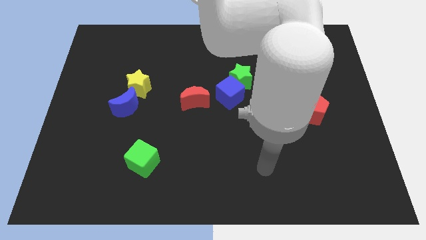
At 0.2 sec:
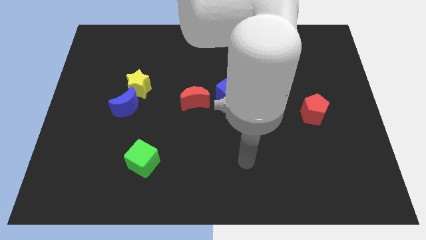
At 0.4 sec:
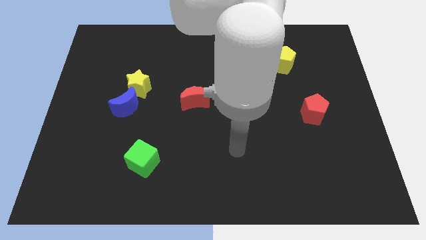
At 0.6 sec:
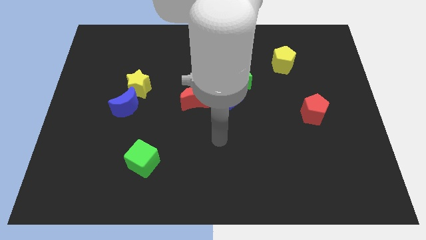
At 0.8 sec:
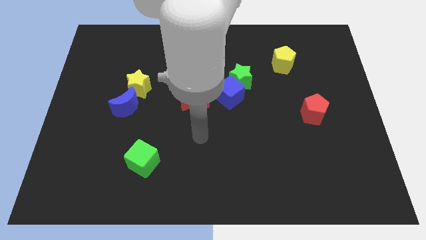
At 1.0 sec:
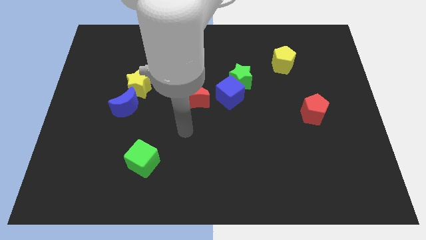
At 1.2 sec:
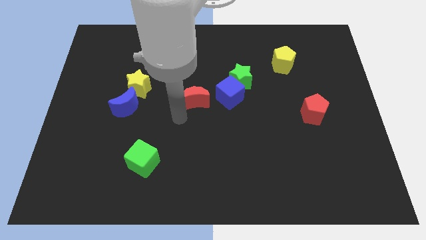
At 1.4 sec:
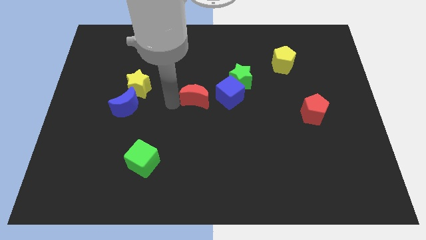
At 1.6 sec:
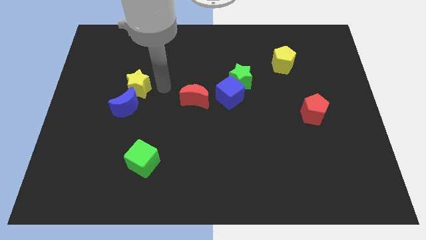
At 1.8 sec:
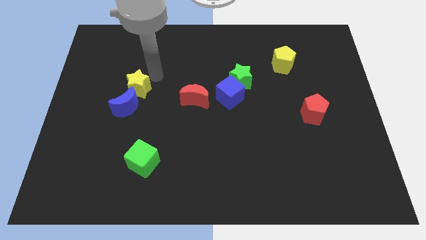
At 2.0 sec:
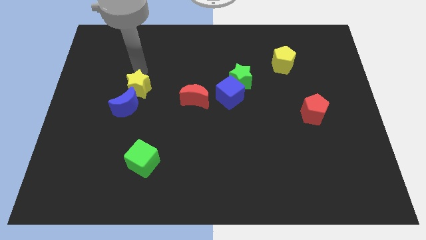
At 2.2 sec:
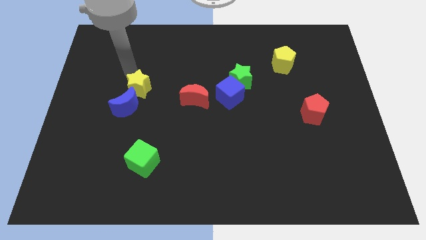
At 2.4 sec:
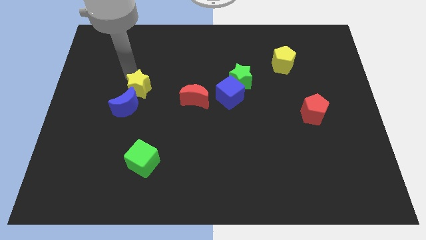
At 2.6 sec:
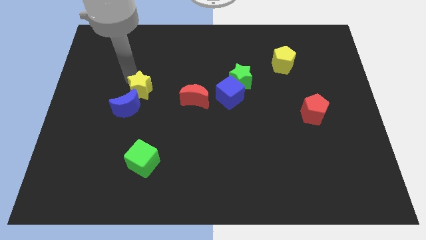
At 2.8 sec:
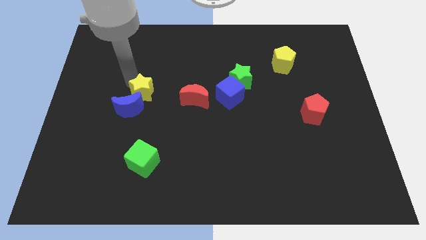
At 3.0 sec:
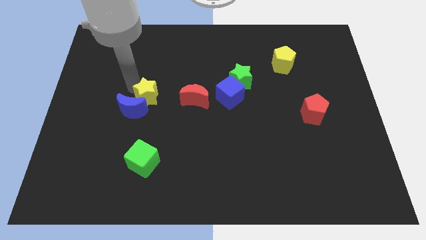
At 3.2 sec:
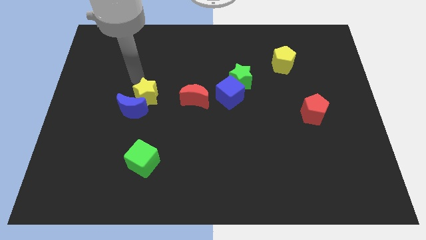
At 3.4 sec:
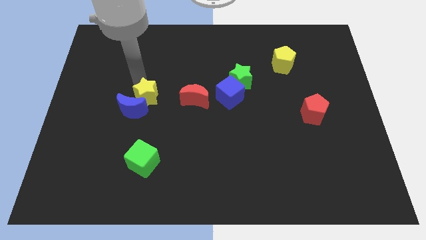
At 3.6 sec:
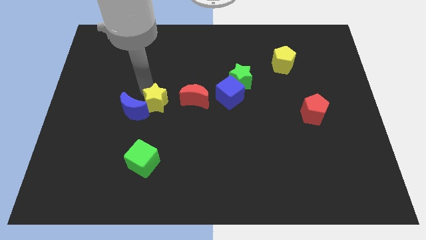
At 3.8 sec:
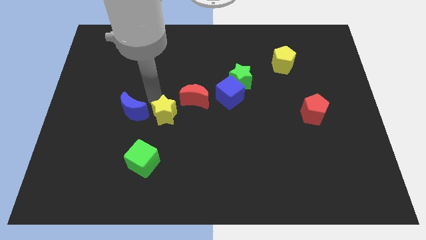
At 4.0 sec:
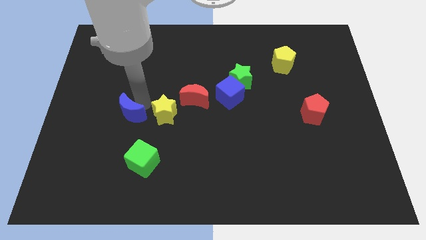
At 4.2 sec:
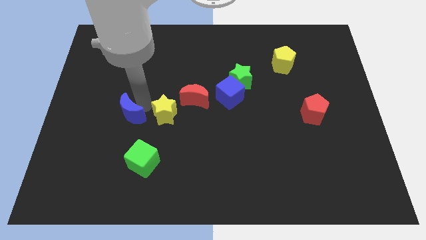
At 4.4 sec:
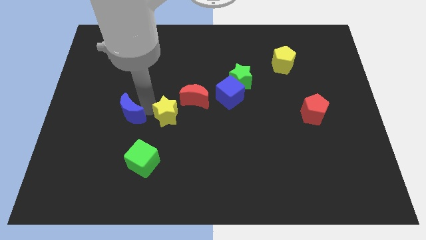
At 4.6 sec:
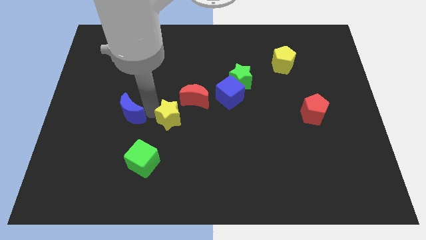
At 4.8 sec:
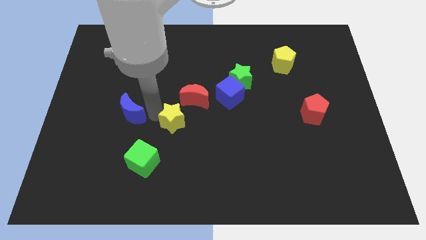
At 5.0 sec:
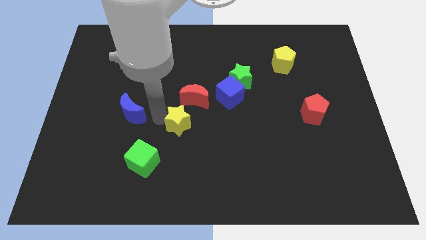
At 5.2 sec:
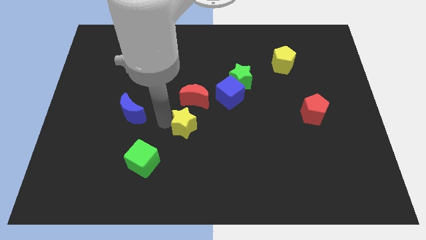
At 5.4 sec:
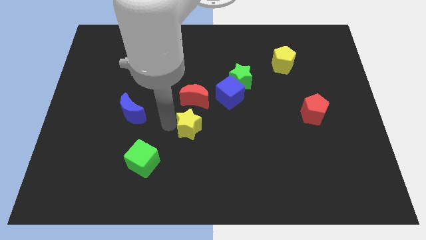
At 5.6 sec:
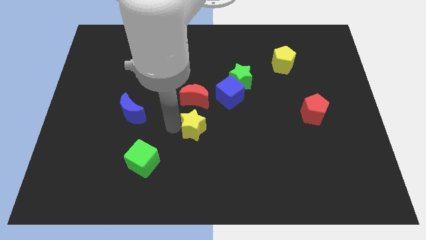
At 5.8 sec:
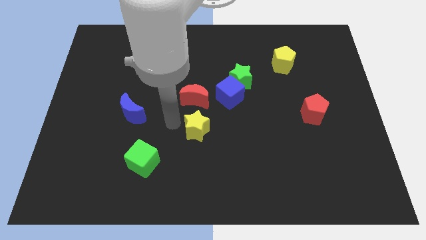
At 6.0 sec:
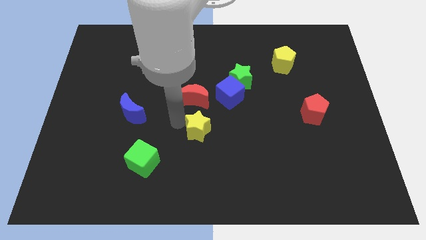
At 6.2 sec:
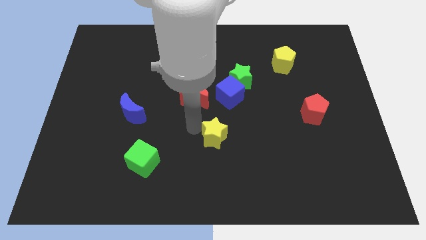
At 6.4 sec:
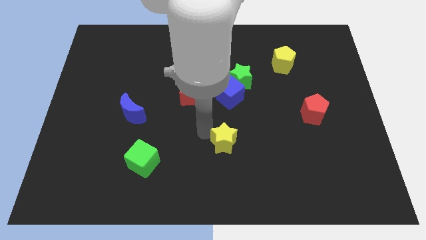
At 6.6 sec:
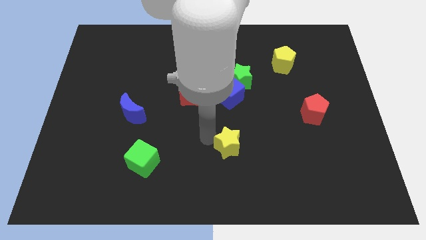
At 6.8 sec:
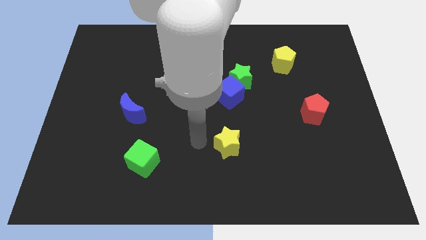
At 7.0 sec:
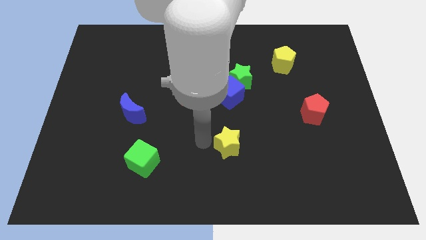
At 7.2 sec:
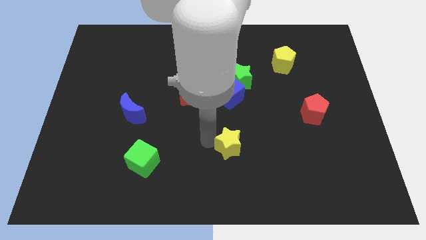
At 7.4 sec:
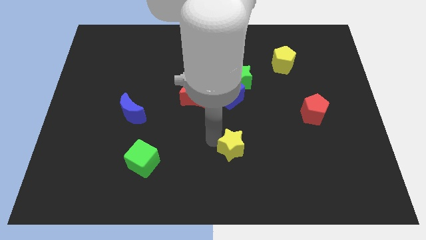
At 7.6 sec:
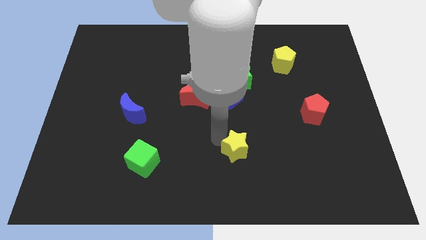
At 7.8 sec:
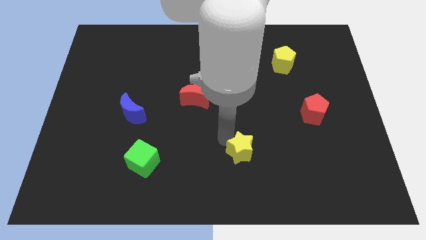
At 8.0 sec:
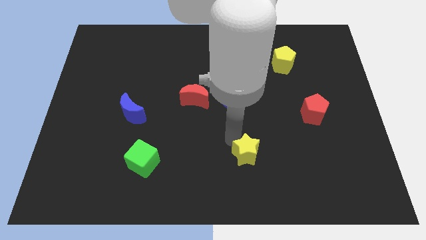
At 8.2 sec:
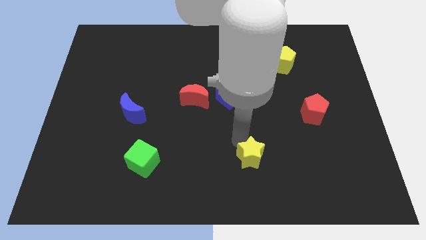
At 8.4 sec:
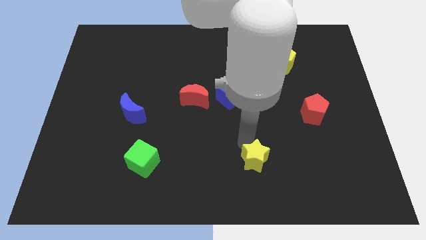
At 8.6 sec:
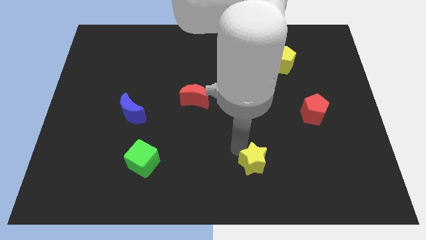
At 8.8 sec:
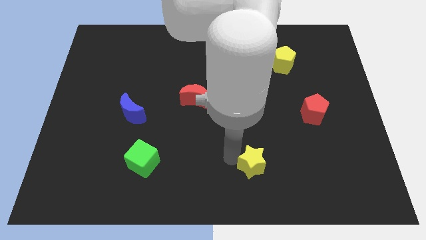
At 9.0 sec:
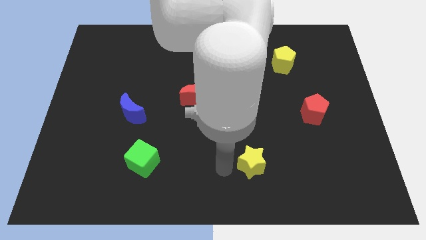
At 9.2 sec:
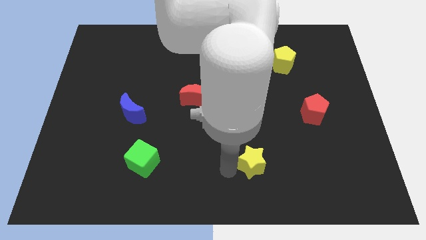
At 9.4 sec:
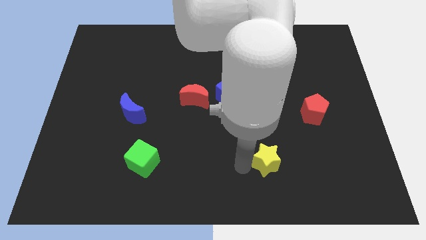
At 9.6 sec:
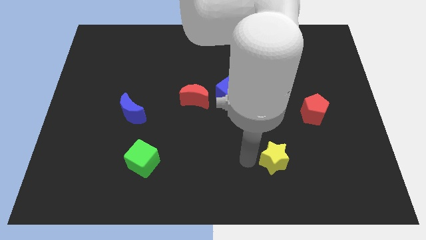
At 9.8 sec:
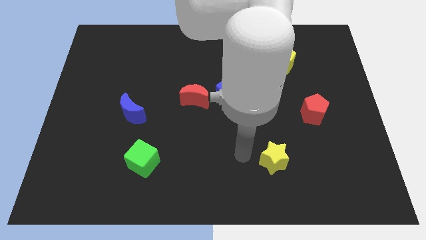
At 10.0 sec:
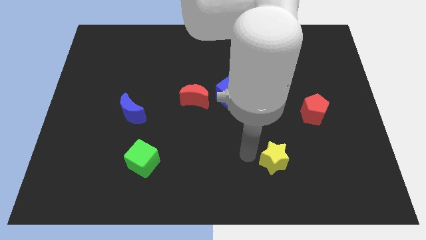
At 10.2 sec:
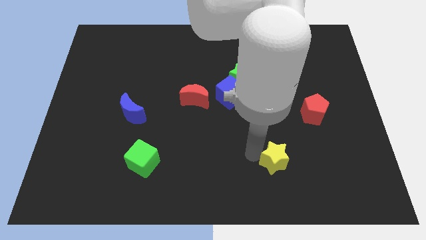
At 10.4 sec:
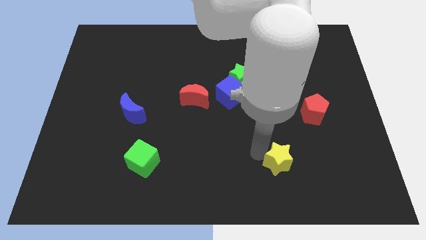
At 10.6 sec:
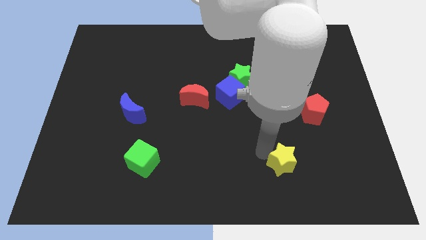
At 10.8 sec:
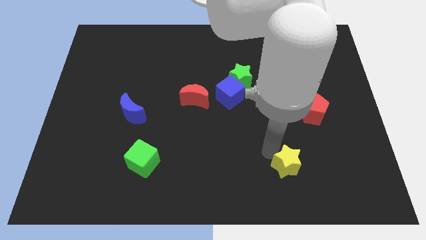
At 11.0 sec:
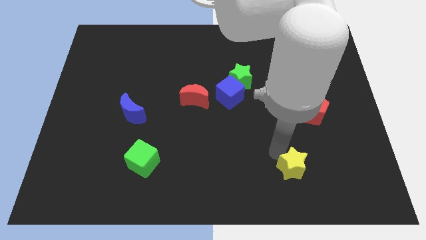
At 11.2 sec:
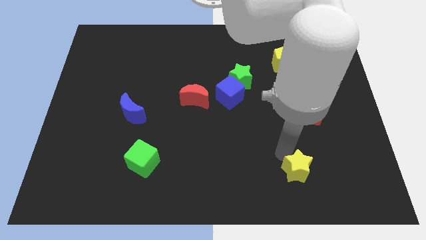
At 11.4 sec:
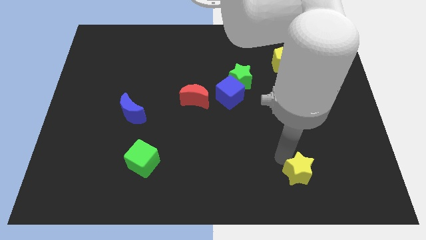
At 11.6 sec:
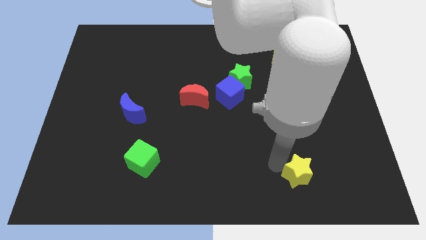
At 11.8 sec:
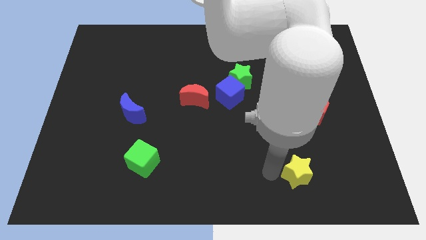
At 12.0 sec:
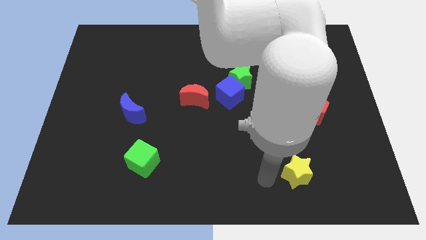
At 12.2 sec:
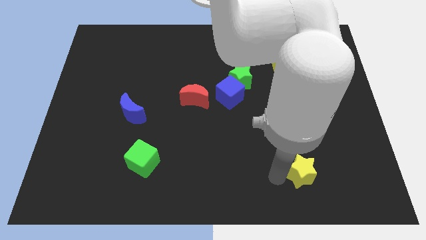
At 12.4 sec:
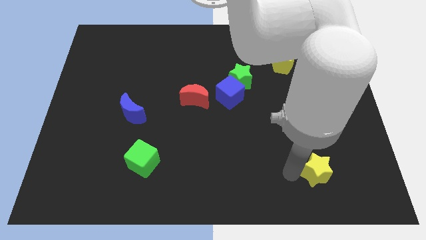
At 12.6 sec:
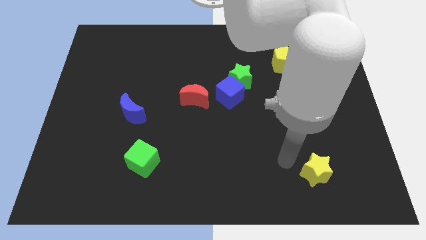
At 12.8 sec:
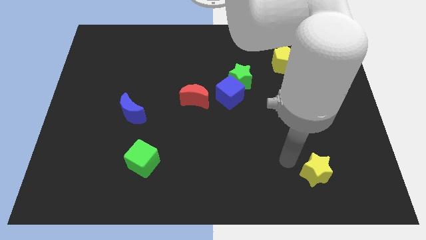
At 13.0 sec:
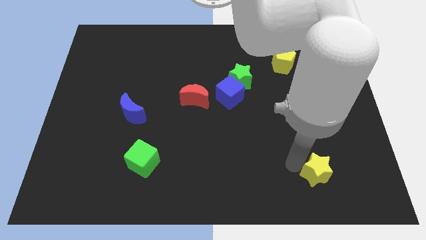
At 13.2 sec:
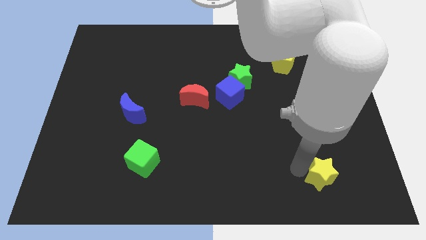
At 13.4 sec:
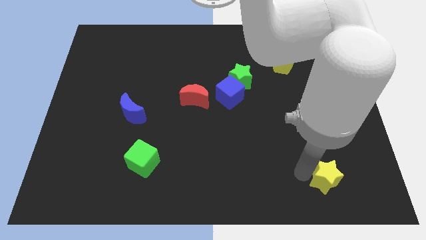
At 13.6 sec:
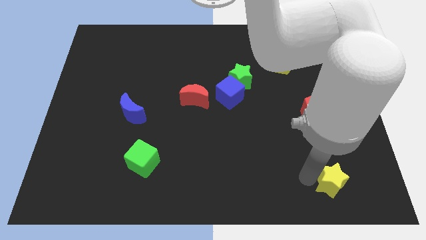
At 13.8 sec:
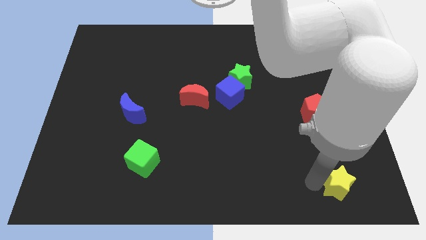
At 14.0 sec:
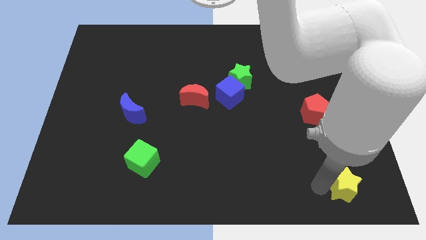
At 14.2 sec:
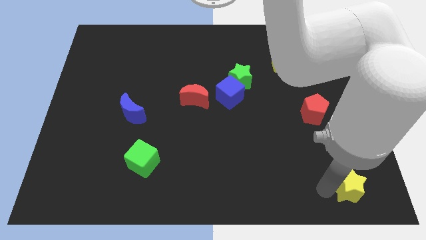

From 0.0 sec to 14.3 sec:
slide the yellow star to the bottom right of the board
